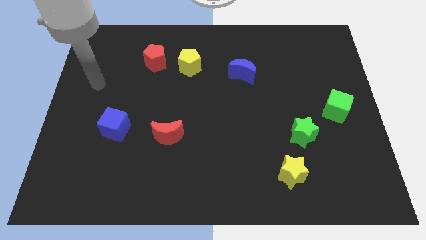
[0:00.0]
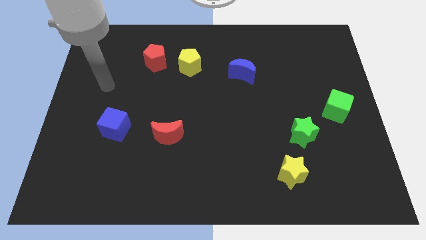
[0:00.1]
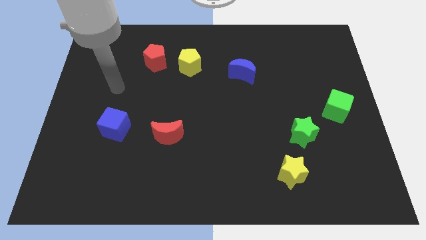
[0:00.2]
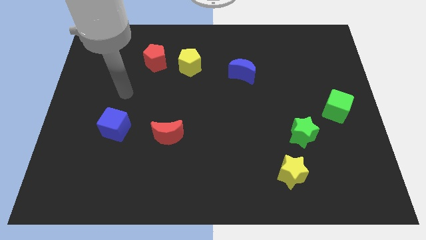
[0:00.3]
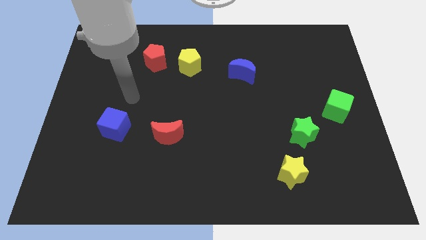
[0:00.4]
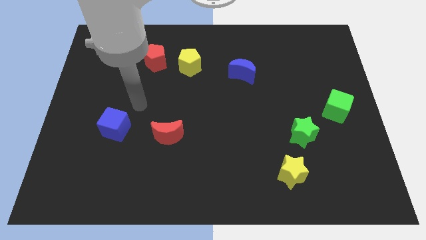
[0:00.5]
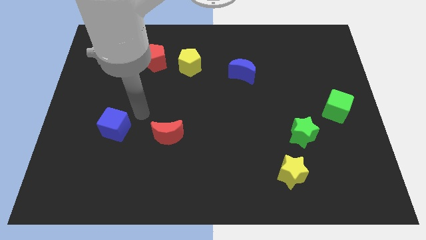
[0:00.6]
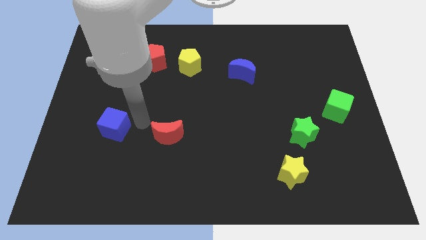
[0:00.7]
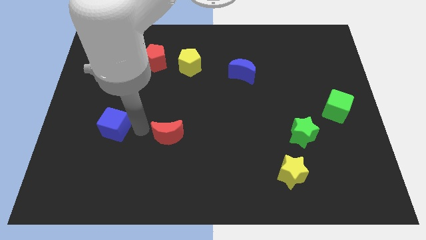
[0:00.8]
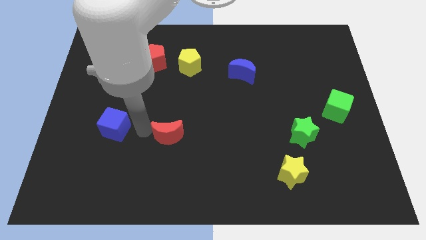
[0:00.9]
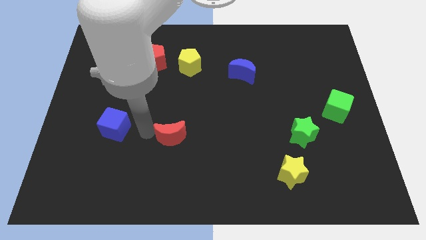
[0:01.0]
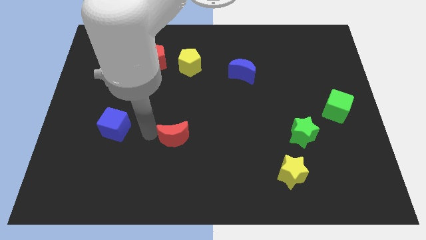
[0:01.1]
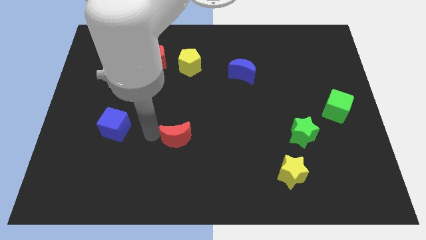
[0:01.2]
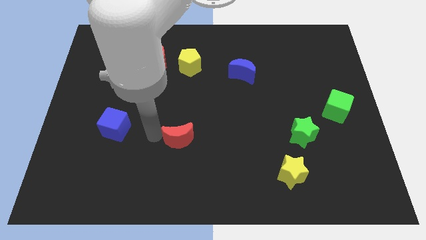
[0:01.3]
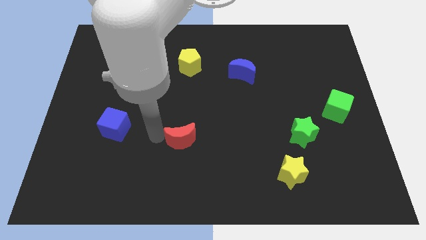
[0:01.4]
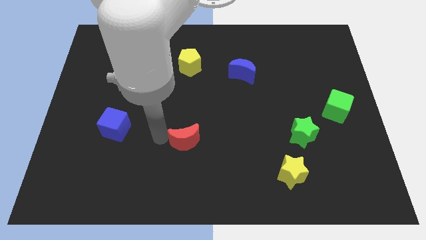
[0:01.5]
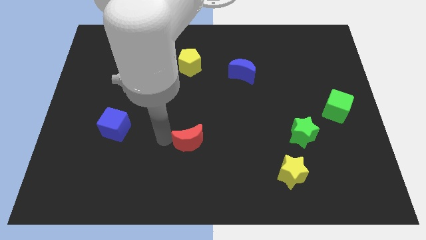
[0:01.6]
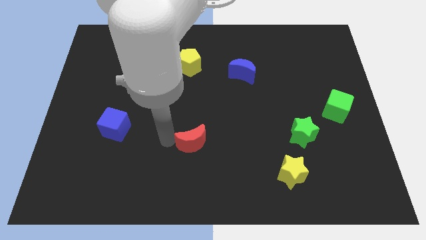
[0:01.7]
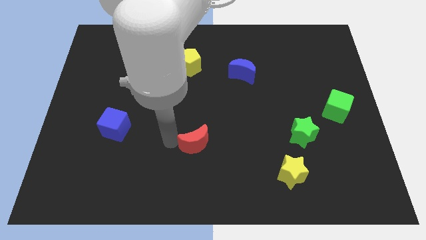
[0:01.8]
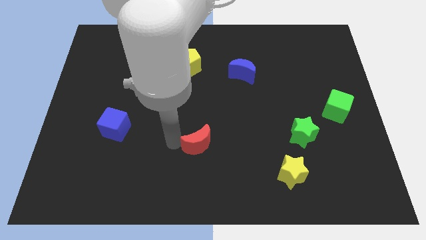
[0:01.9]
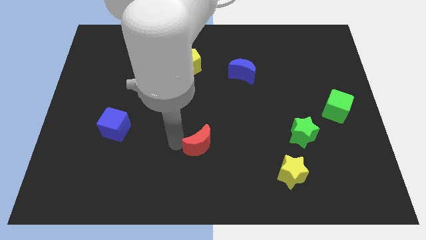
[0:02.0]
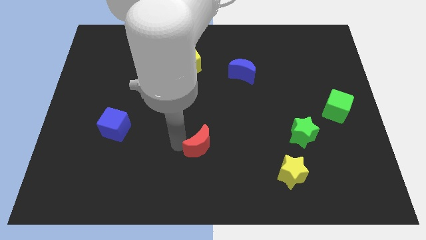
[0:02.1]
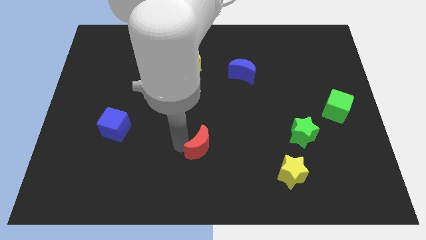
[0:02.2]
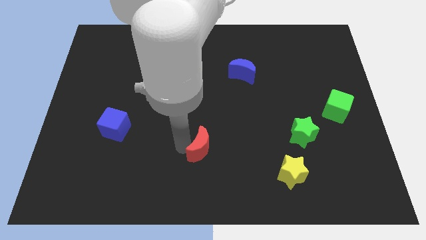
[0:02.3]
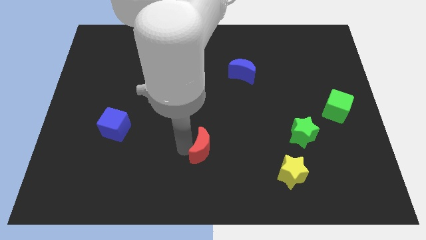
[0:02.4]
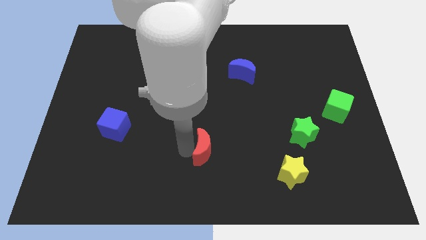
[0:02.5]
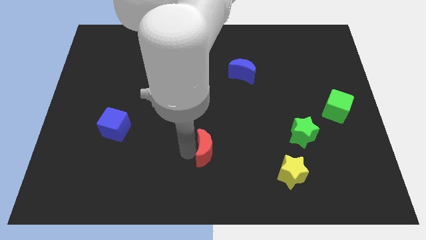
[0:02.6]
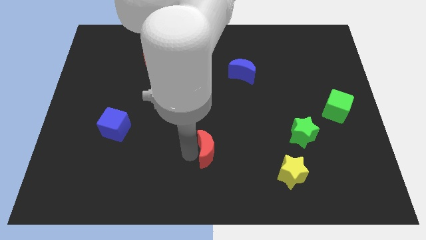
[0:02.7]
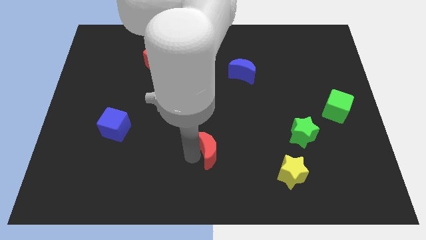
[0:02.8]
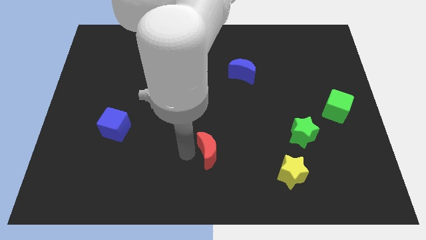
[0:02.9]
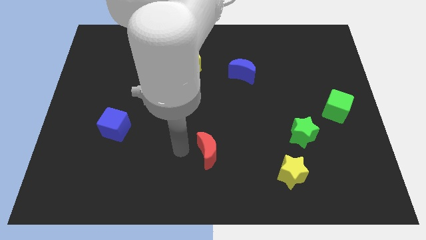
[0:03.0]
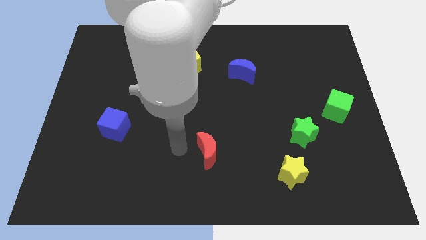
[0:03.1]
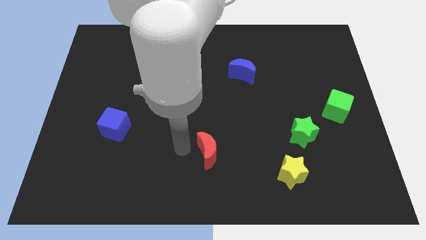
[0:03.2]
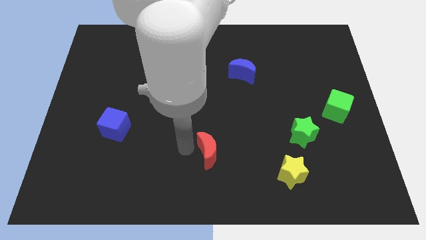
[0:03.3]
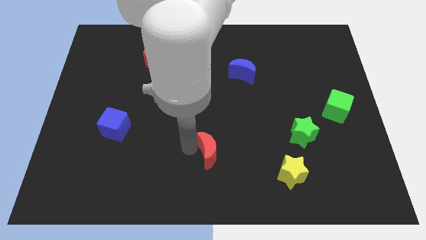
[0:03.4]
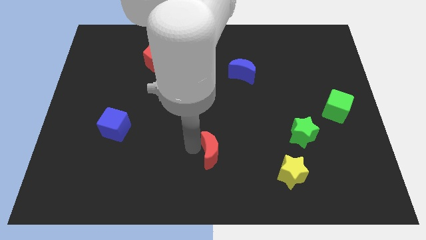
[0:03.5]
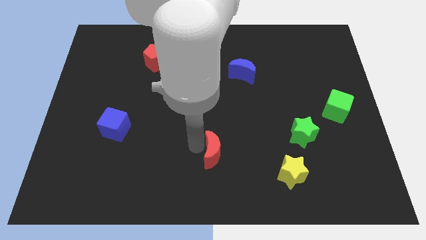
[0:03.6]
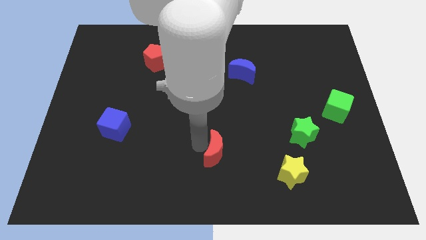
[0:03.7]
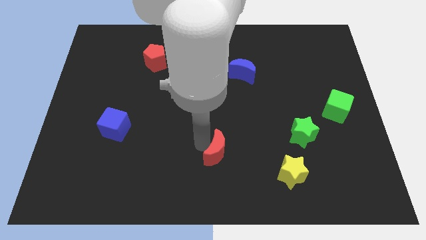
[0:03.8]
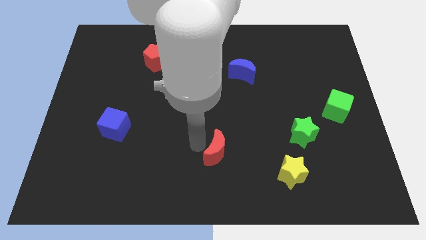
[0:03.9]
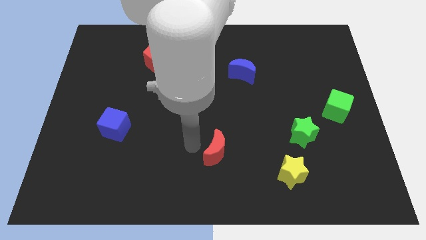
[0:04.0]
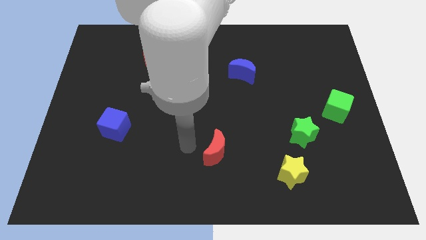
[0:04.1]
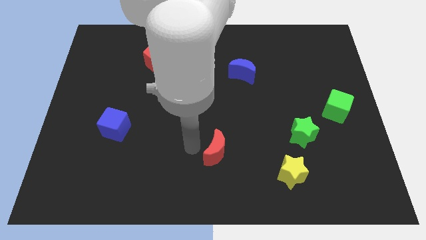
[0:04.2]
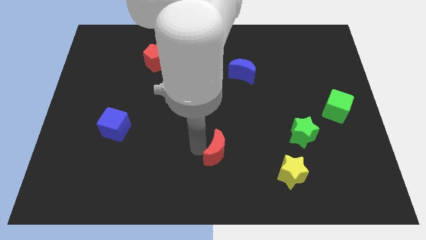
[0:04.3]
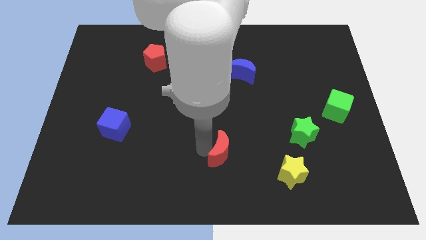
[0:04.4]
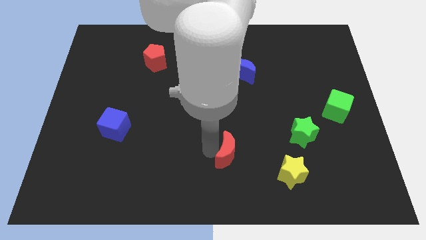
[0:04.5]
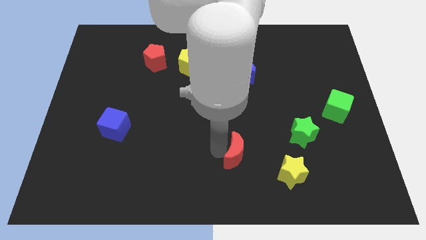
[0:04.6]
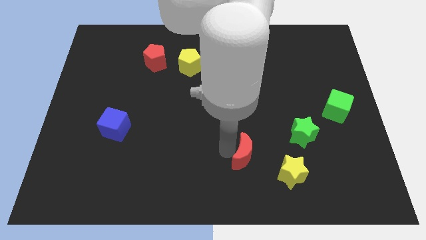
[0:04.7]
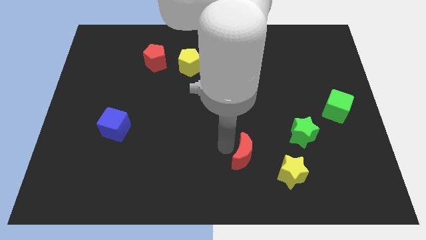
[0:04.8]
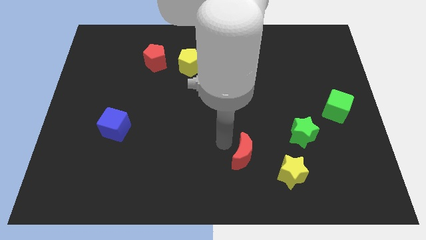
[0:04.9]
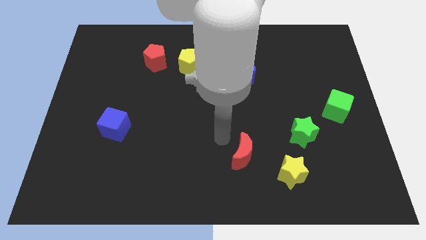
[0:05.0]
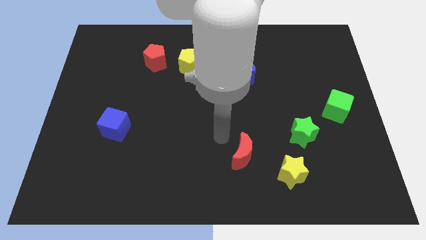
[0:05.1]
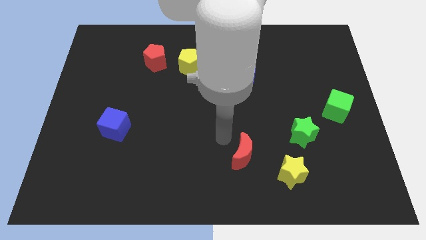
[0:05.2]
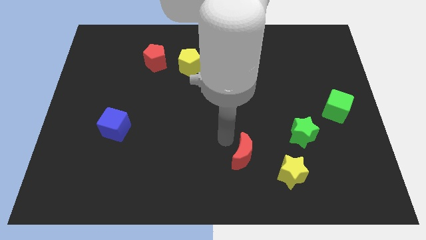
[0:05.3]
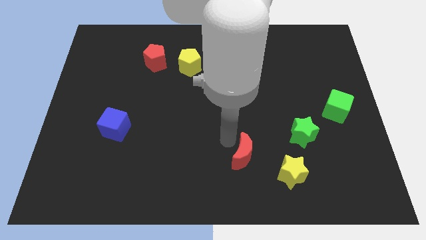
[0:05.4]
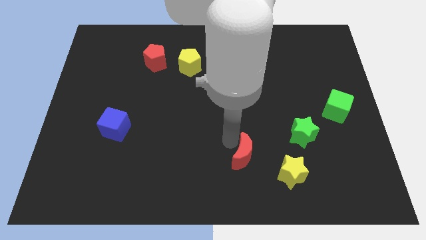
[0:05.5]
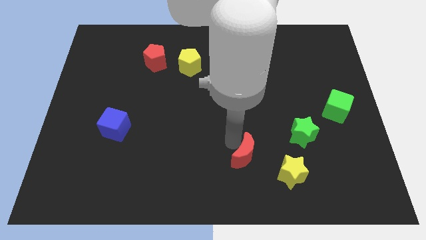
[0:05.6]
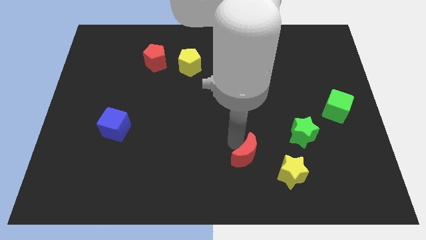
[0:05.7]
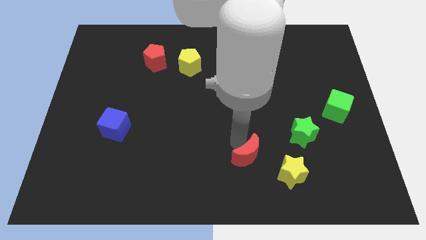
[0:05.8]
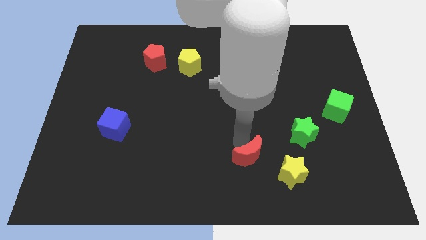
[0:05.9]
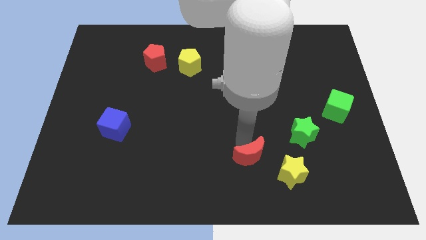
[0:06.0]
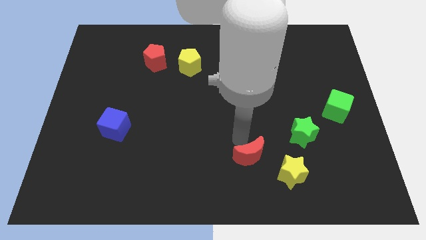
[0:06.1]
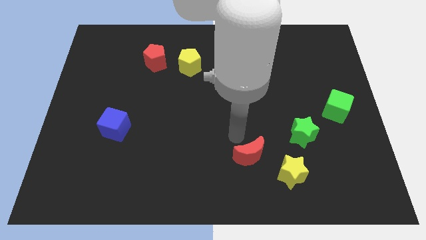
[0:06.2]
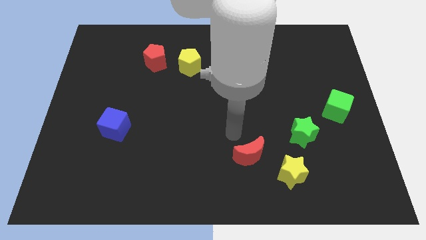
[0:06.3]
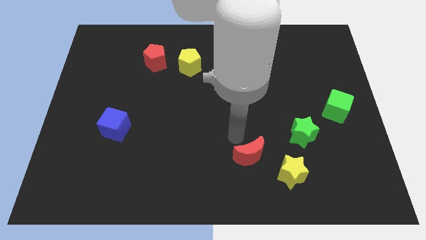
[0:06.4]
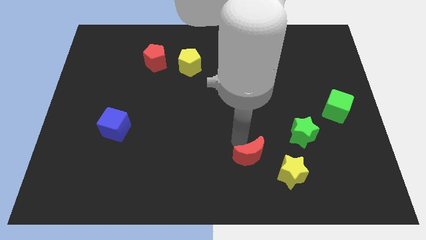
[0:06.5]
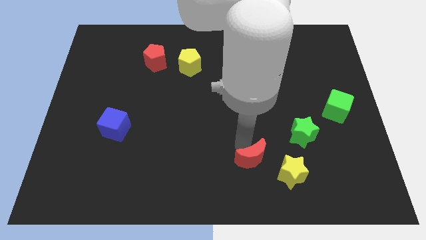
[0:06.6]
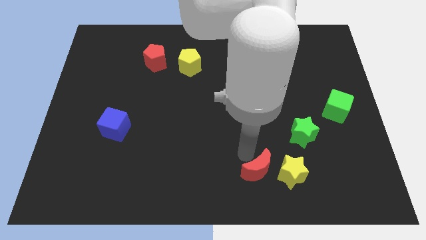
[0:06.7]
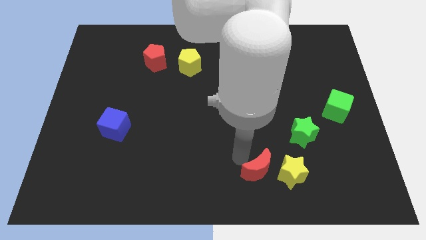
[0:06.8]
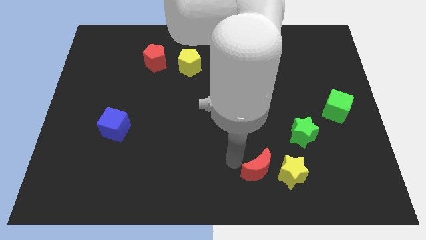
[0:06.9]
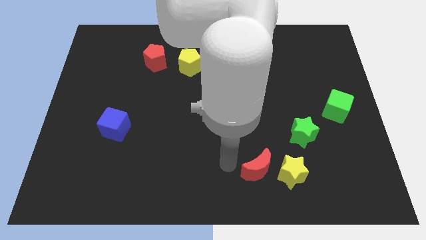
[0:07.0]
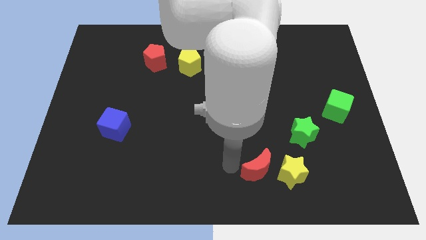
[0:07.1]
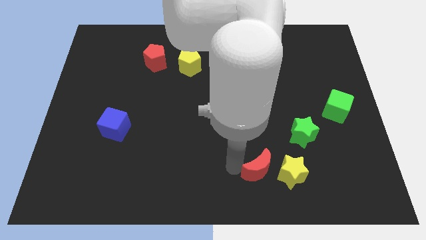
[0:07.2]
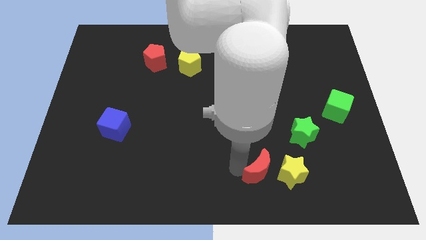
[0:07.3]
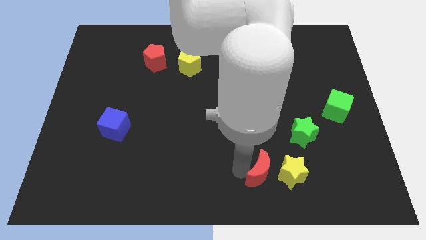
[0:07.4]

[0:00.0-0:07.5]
slide the red moon close to the yellow star
